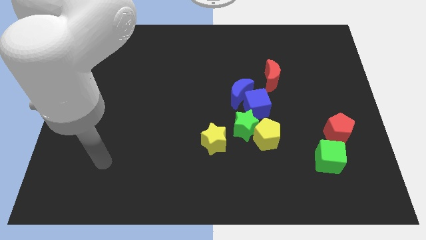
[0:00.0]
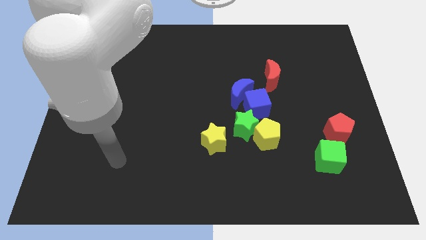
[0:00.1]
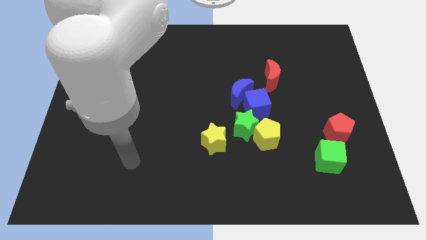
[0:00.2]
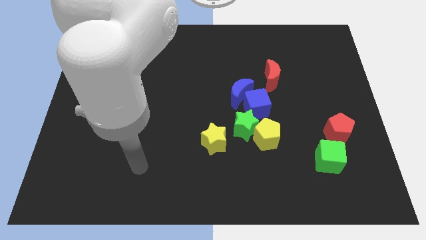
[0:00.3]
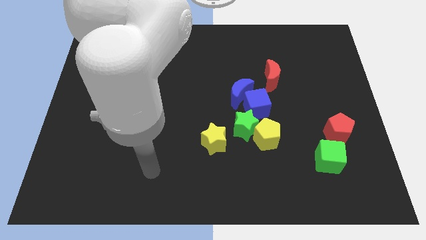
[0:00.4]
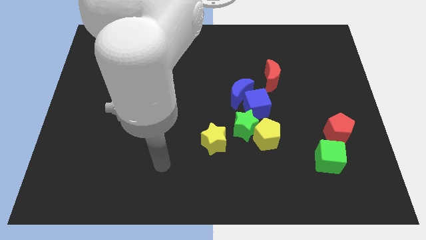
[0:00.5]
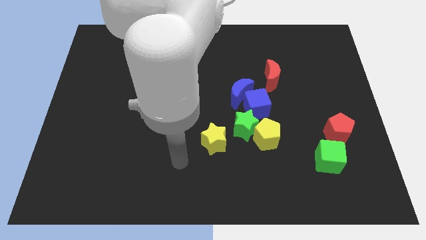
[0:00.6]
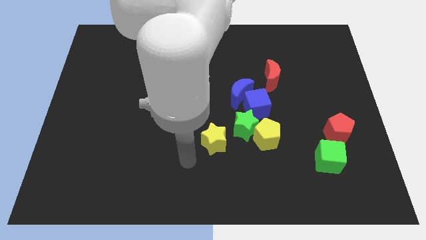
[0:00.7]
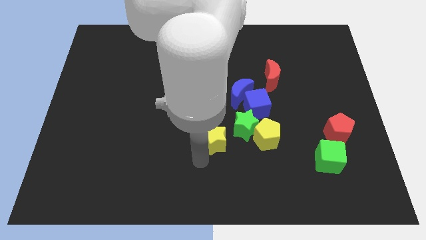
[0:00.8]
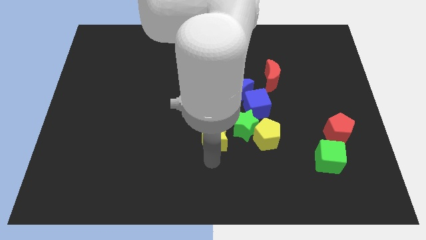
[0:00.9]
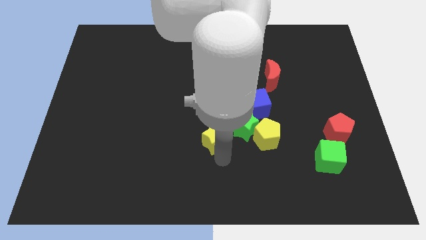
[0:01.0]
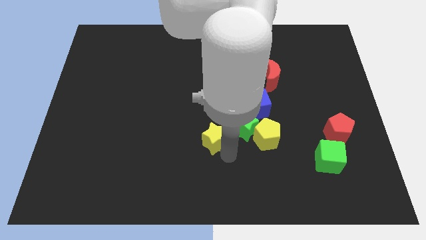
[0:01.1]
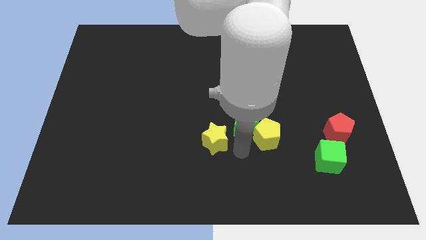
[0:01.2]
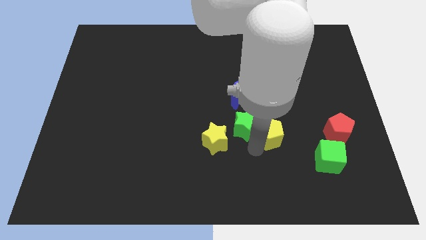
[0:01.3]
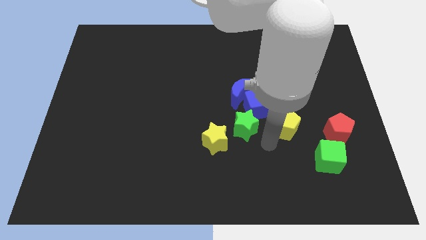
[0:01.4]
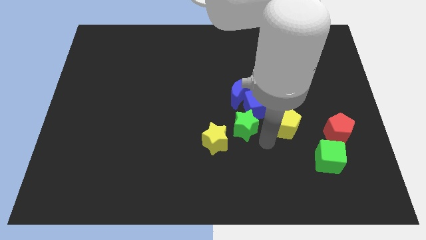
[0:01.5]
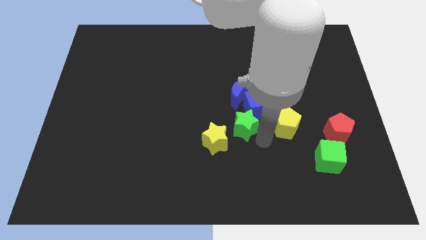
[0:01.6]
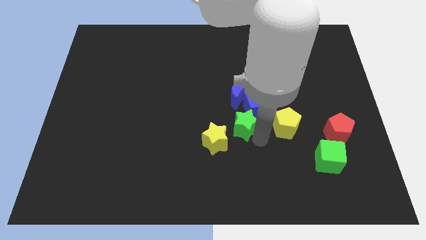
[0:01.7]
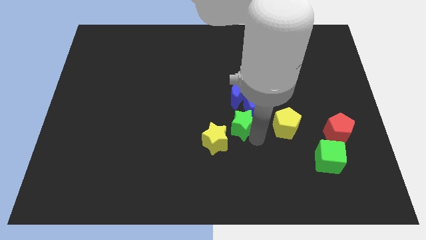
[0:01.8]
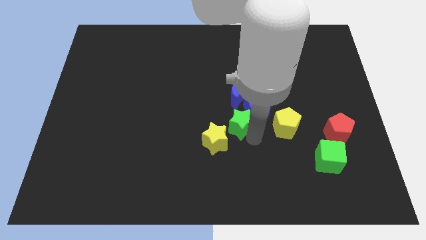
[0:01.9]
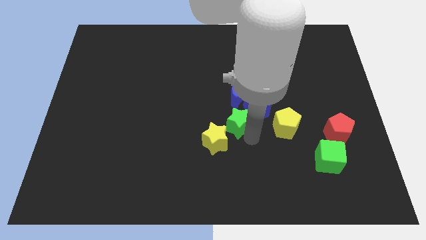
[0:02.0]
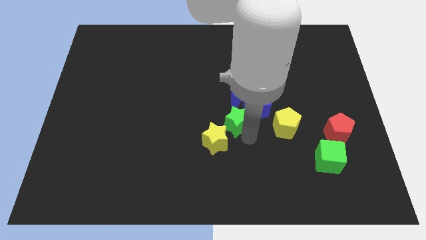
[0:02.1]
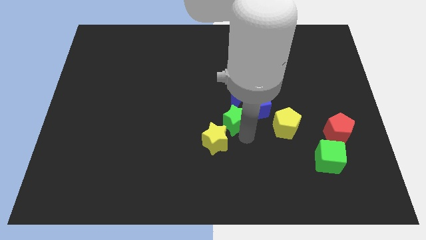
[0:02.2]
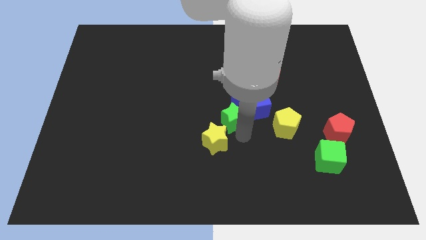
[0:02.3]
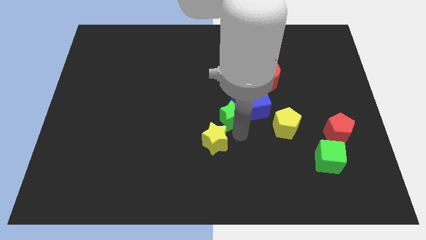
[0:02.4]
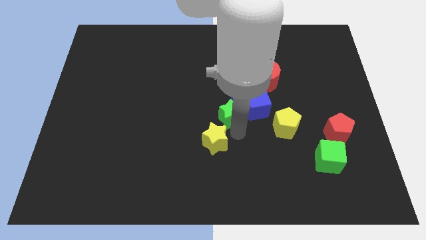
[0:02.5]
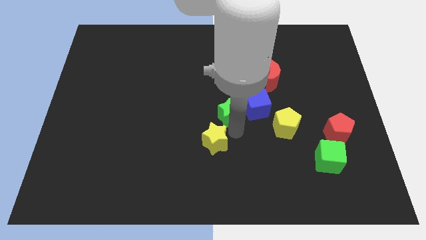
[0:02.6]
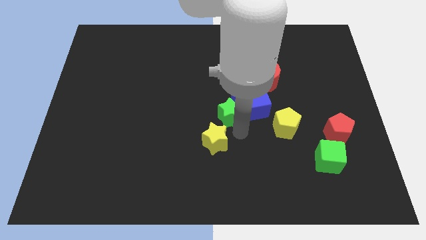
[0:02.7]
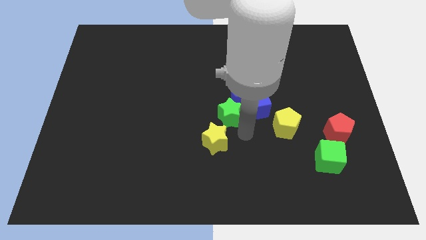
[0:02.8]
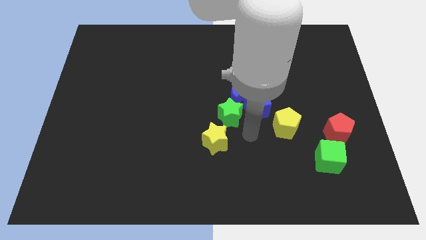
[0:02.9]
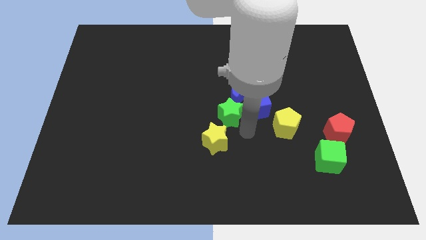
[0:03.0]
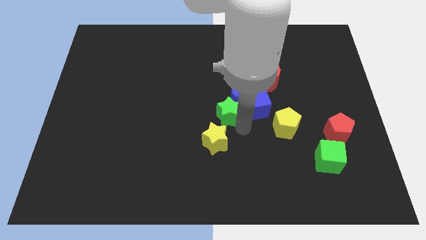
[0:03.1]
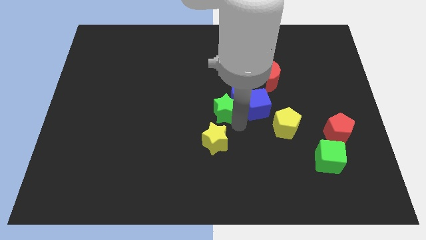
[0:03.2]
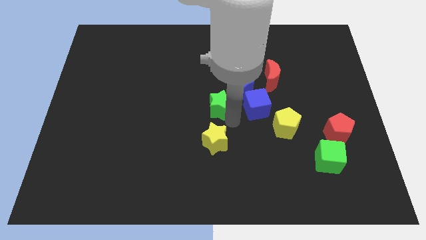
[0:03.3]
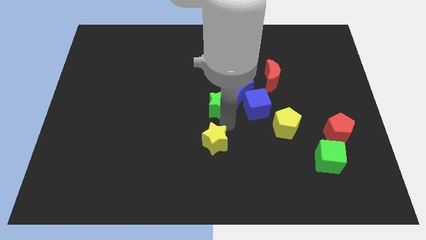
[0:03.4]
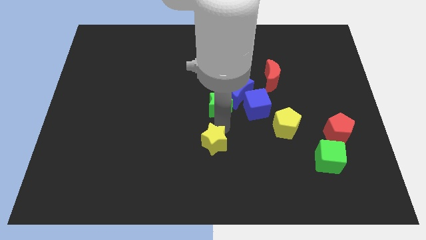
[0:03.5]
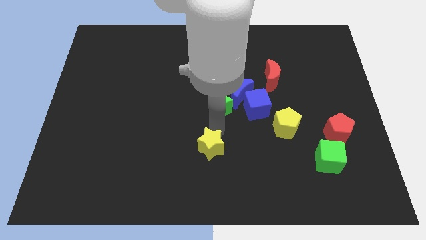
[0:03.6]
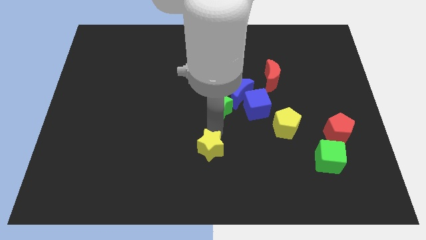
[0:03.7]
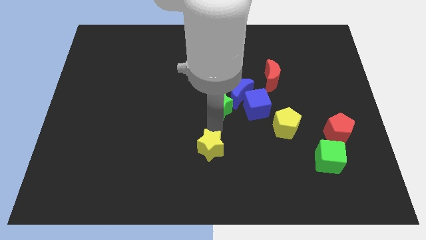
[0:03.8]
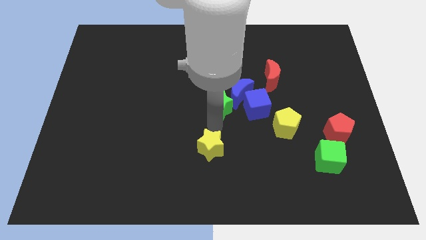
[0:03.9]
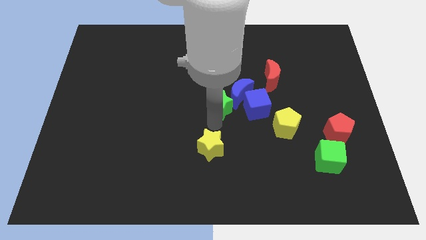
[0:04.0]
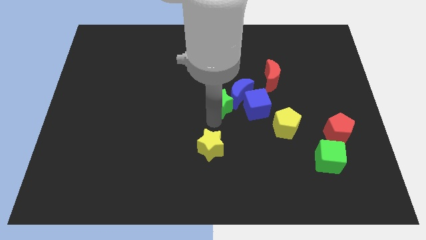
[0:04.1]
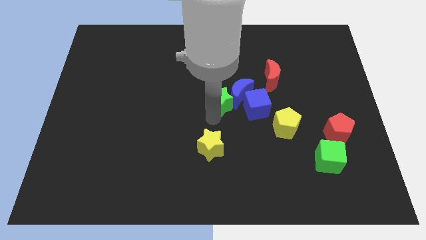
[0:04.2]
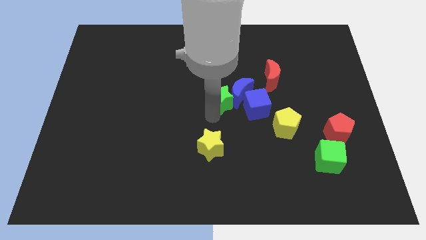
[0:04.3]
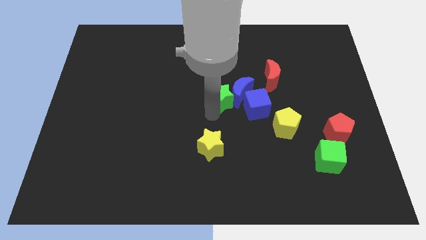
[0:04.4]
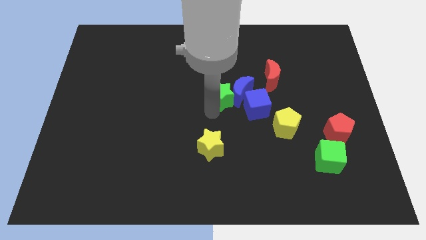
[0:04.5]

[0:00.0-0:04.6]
slightly move the green star up

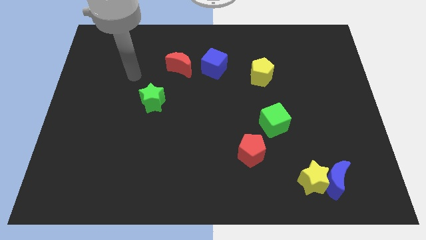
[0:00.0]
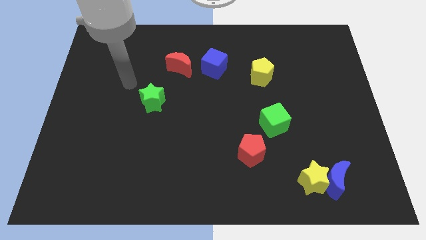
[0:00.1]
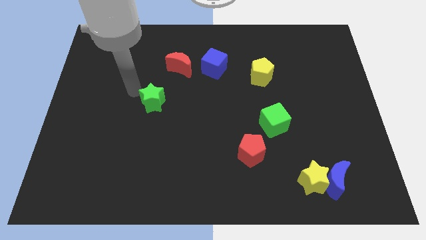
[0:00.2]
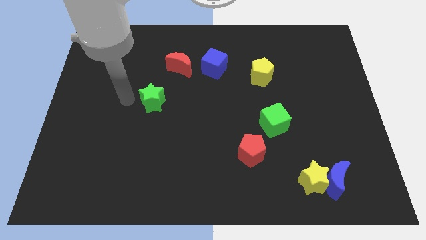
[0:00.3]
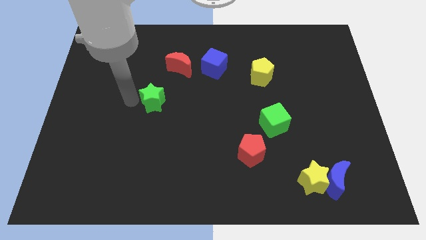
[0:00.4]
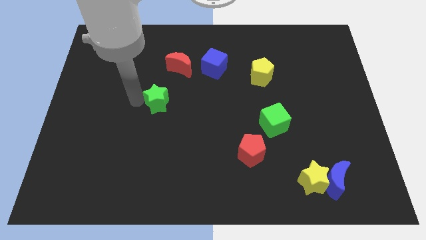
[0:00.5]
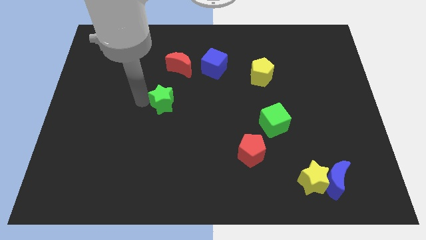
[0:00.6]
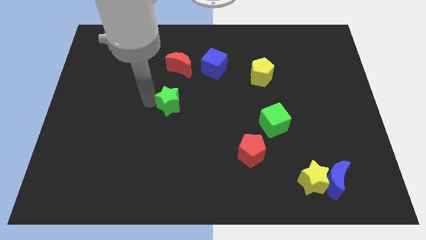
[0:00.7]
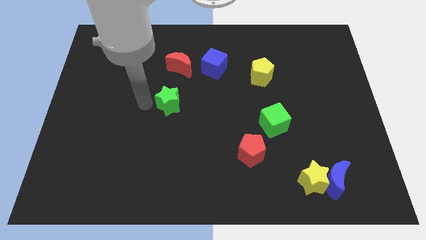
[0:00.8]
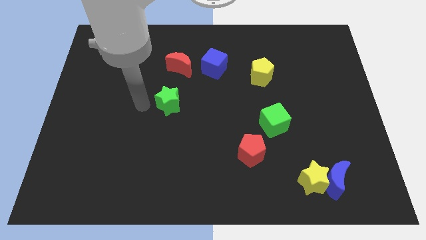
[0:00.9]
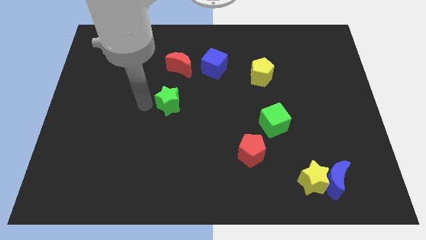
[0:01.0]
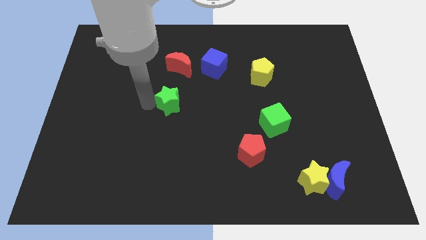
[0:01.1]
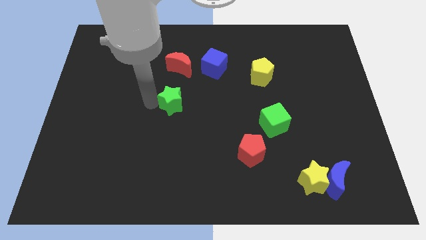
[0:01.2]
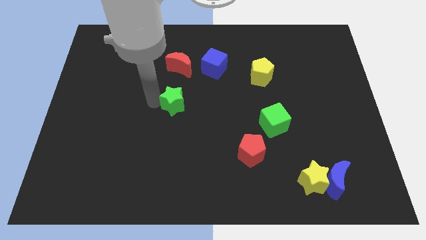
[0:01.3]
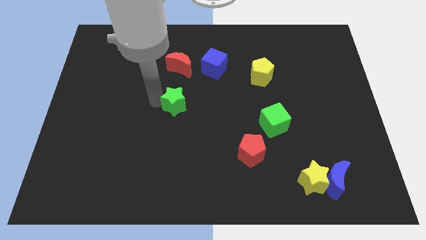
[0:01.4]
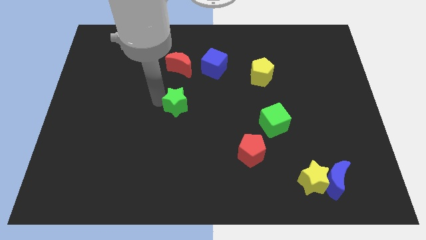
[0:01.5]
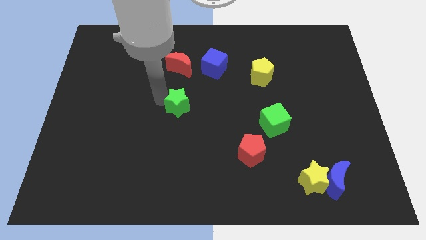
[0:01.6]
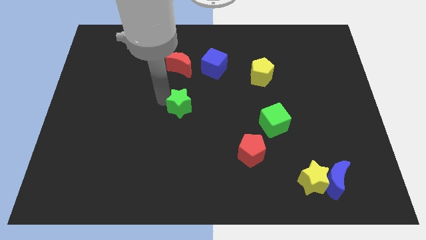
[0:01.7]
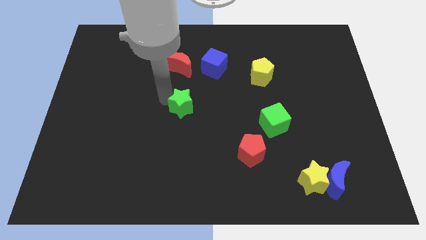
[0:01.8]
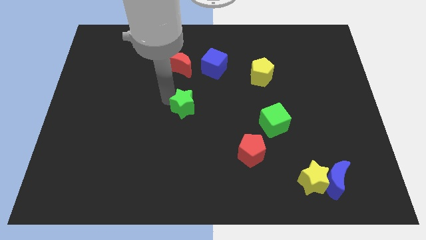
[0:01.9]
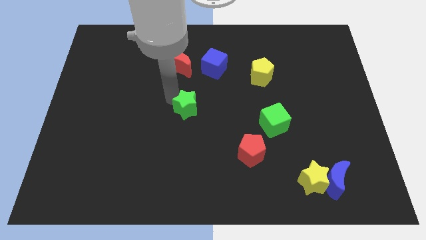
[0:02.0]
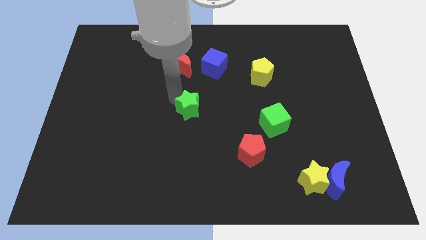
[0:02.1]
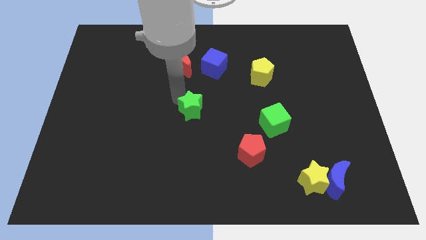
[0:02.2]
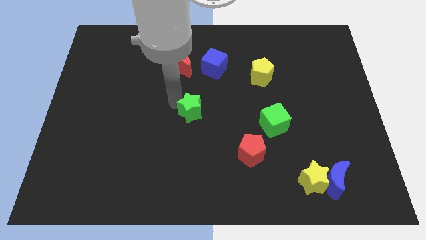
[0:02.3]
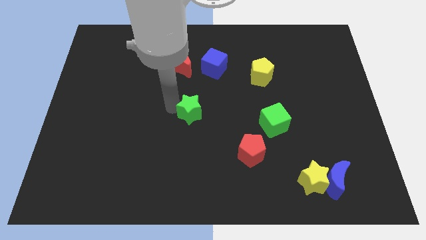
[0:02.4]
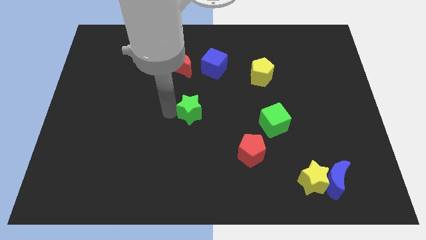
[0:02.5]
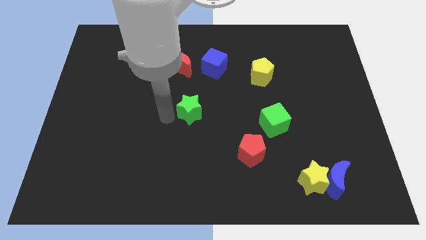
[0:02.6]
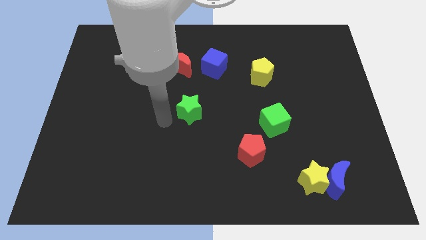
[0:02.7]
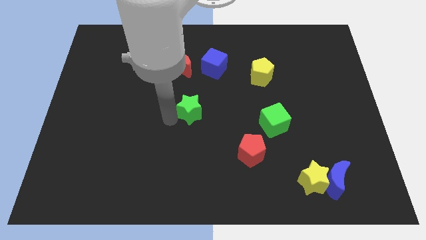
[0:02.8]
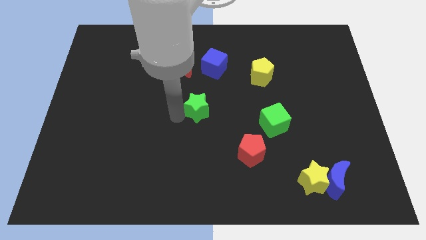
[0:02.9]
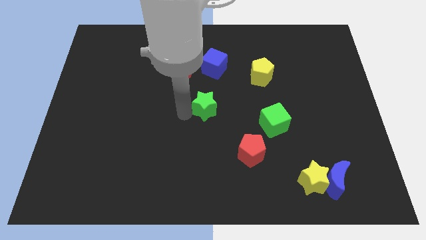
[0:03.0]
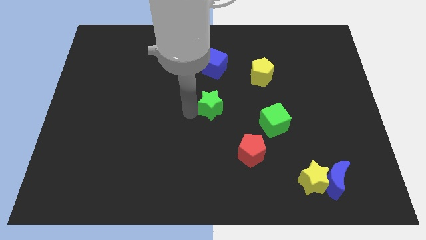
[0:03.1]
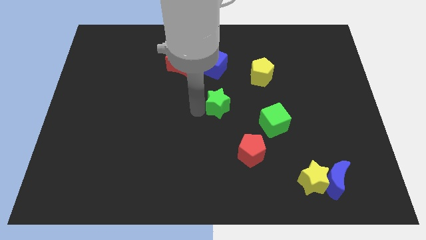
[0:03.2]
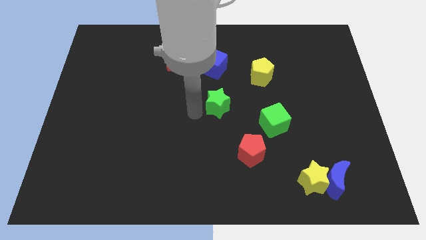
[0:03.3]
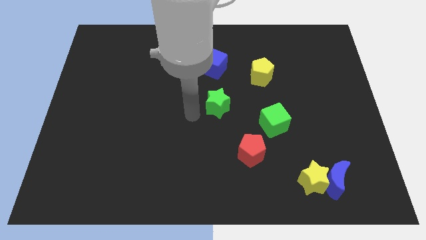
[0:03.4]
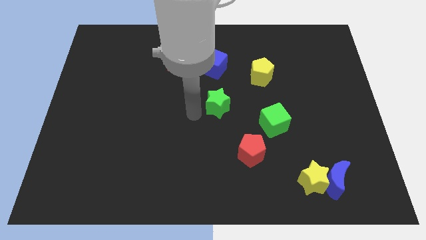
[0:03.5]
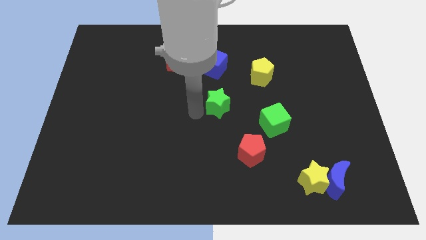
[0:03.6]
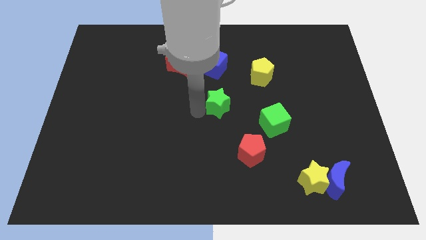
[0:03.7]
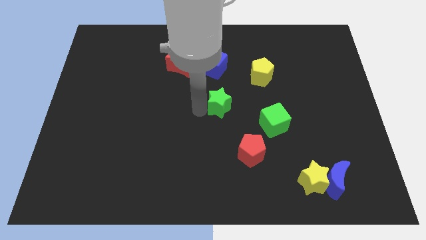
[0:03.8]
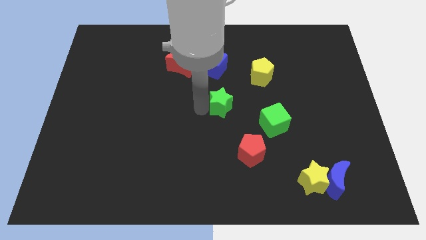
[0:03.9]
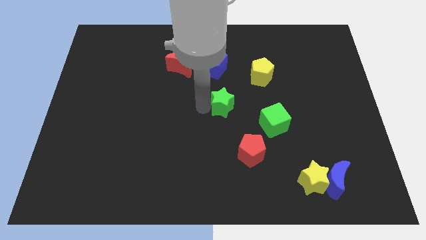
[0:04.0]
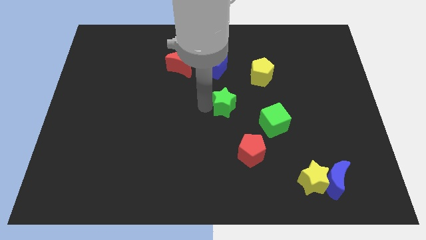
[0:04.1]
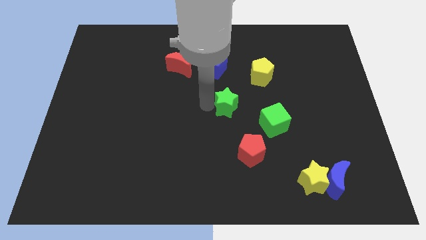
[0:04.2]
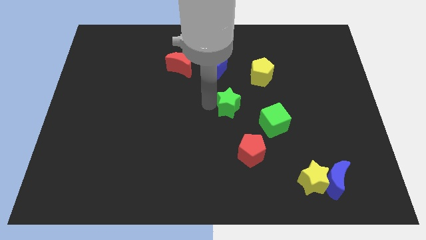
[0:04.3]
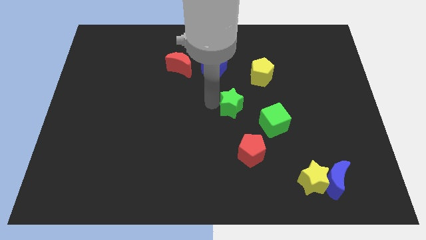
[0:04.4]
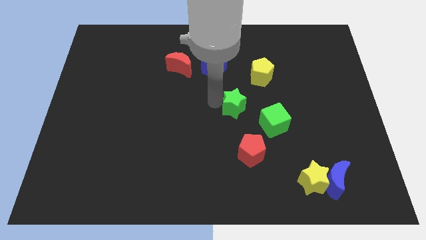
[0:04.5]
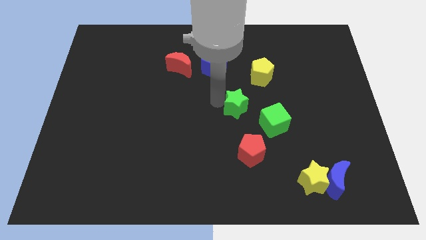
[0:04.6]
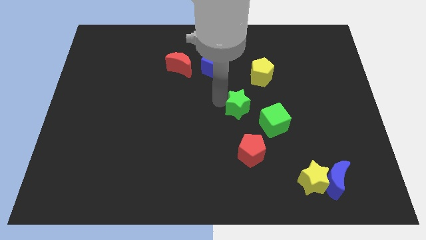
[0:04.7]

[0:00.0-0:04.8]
move the green star right
